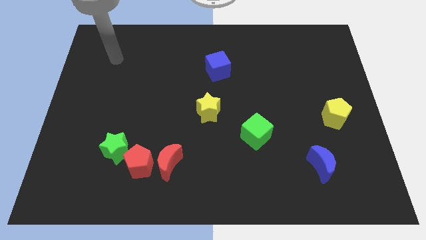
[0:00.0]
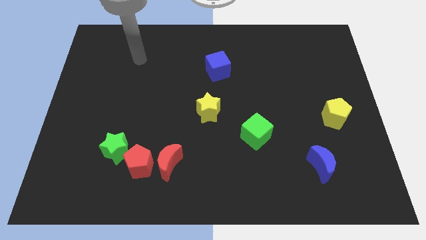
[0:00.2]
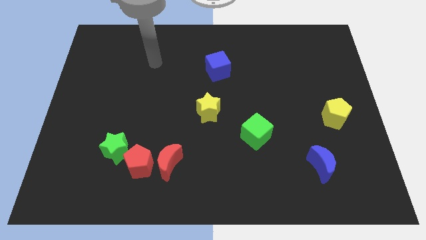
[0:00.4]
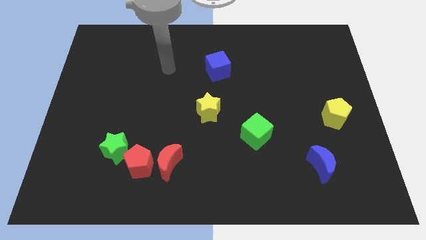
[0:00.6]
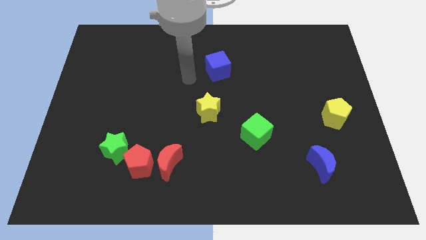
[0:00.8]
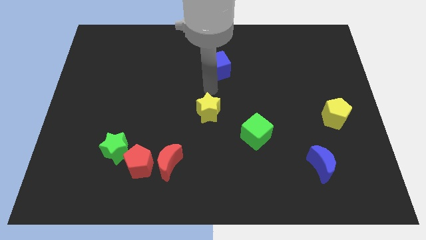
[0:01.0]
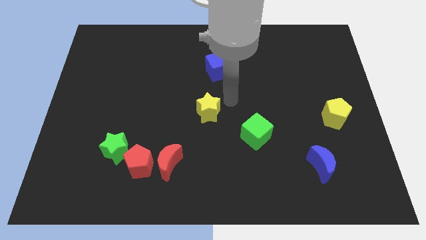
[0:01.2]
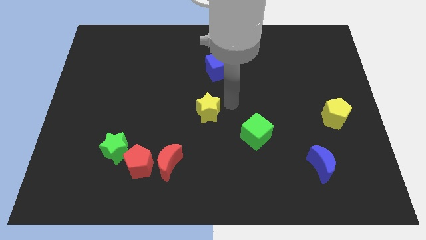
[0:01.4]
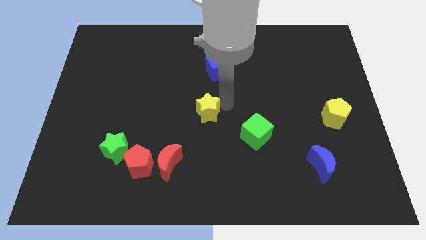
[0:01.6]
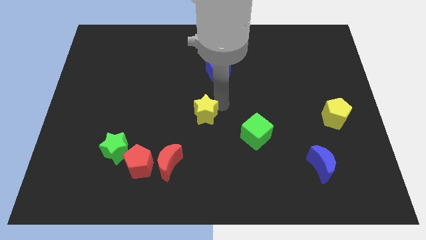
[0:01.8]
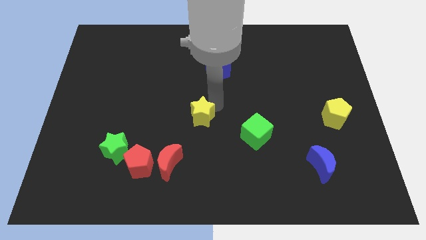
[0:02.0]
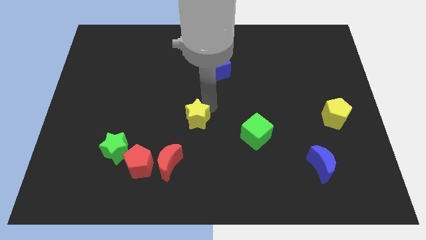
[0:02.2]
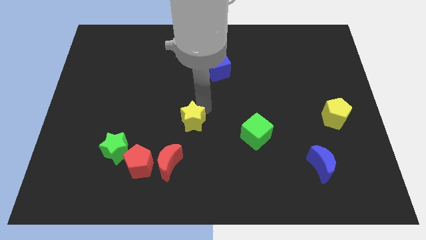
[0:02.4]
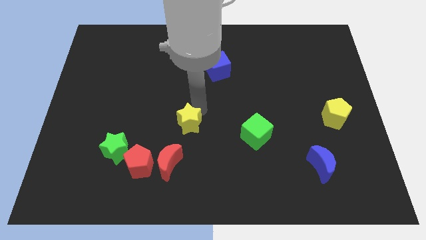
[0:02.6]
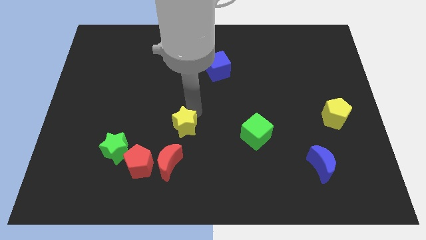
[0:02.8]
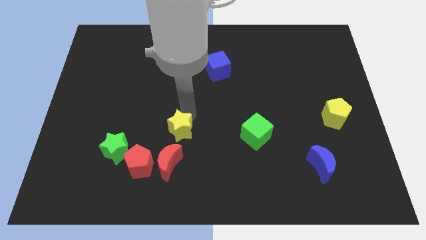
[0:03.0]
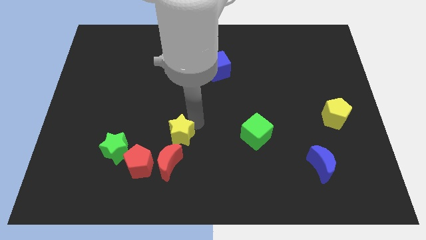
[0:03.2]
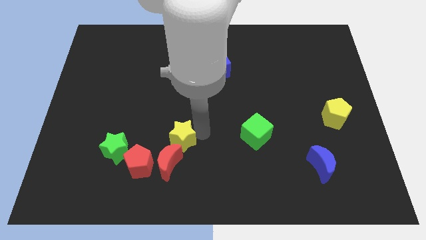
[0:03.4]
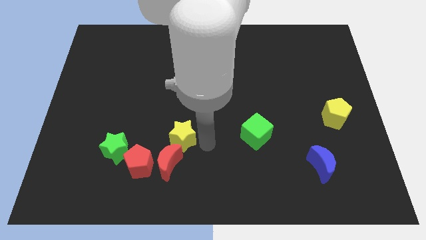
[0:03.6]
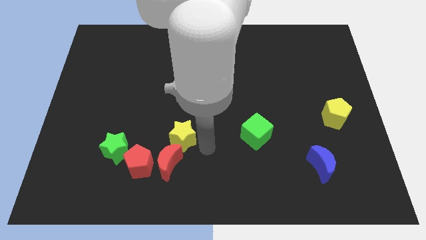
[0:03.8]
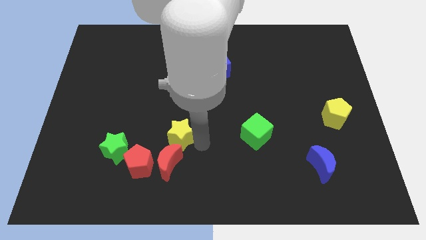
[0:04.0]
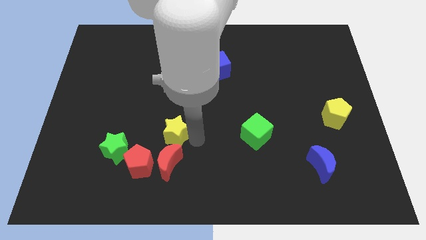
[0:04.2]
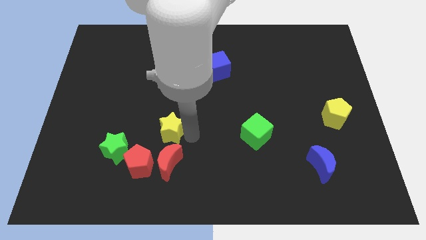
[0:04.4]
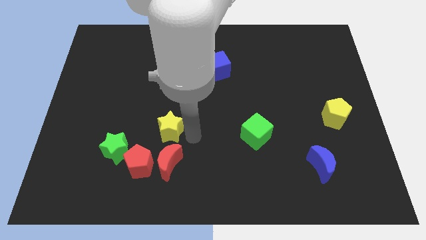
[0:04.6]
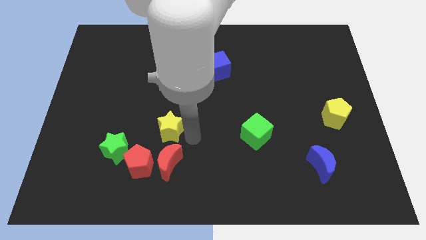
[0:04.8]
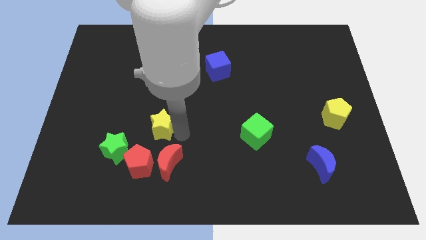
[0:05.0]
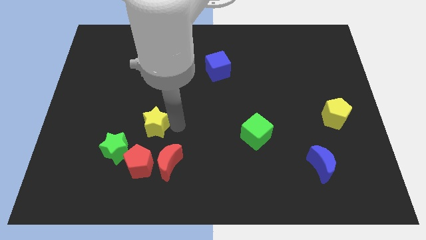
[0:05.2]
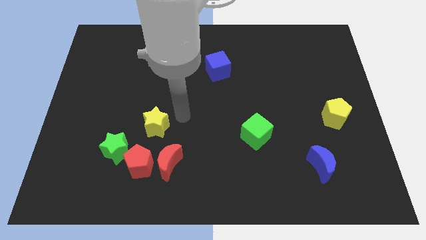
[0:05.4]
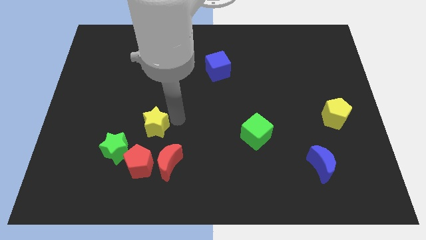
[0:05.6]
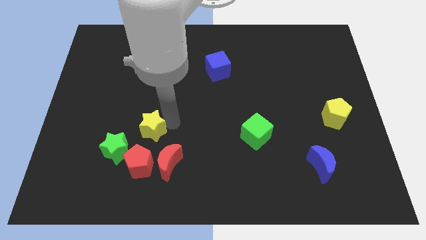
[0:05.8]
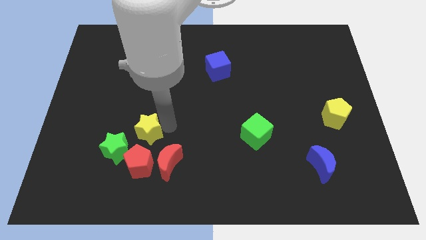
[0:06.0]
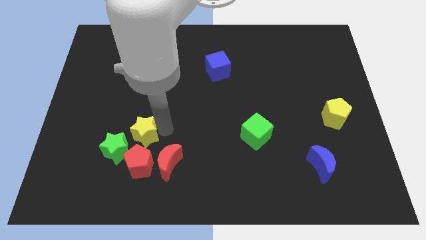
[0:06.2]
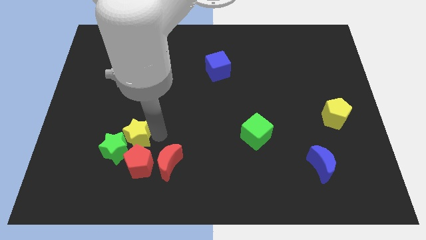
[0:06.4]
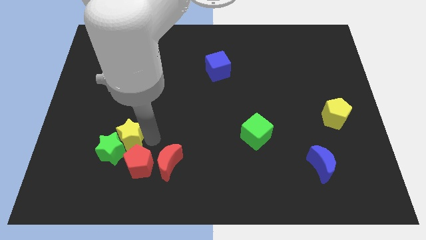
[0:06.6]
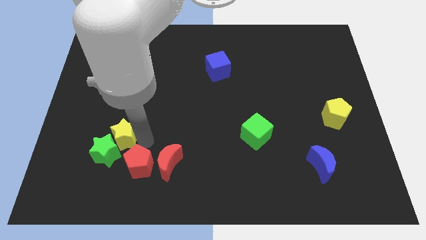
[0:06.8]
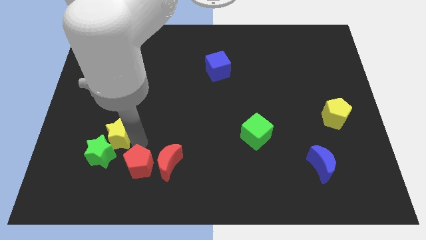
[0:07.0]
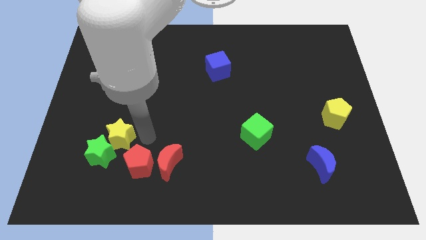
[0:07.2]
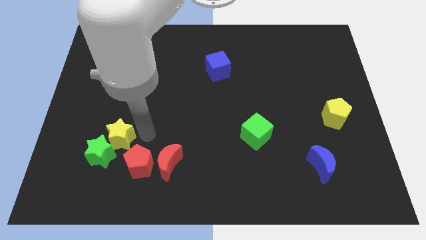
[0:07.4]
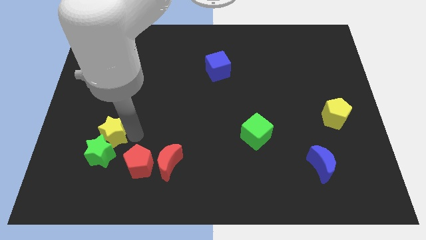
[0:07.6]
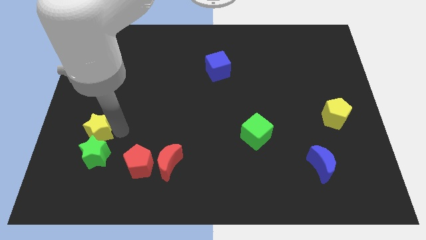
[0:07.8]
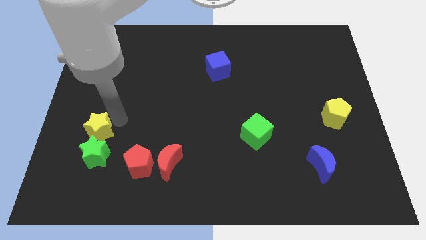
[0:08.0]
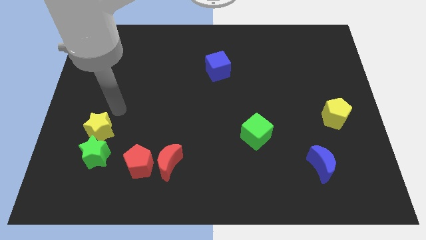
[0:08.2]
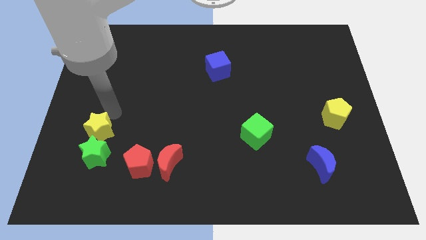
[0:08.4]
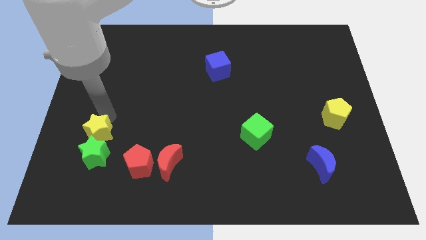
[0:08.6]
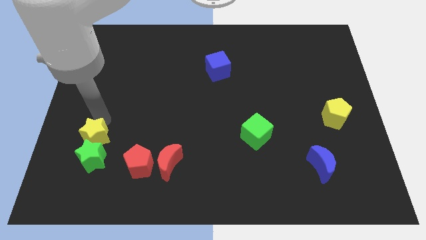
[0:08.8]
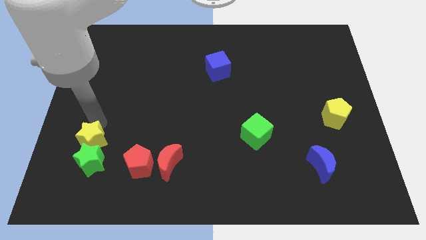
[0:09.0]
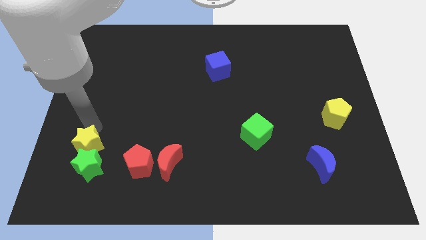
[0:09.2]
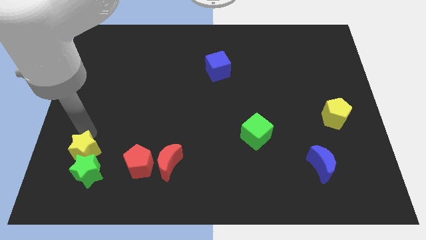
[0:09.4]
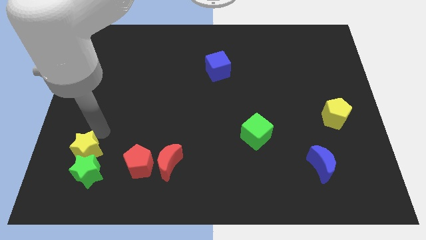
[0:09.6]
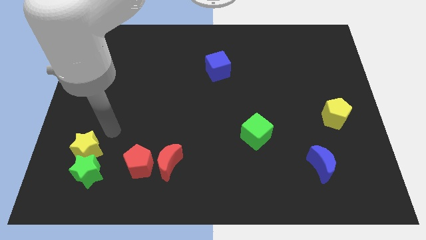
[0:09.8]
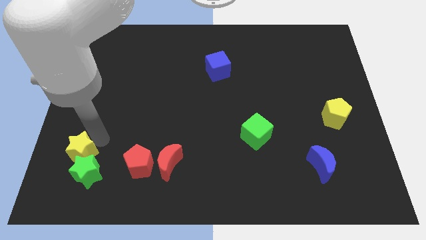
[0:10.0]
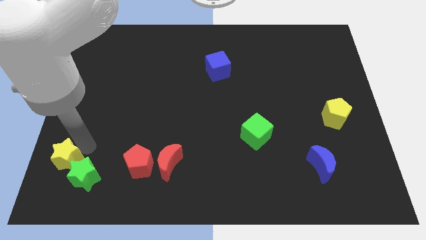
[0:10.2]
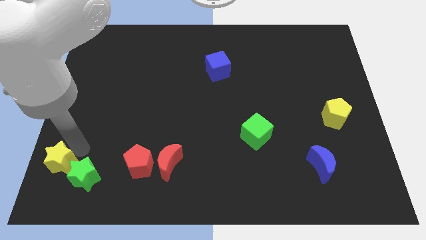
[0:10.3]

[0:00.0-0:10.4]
slide the yellow star to the bottom left of the board

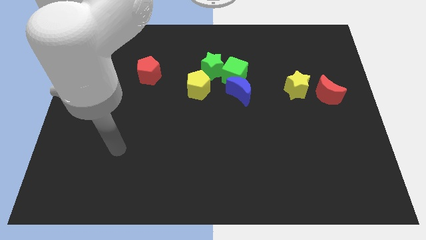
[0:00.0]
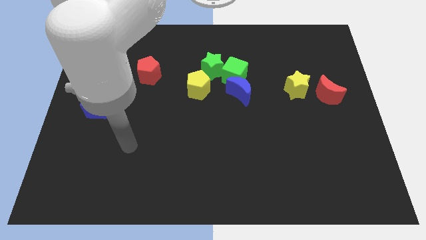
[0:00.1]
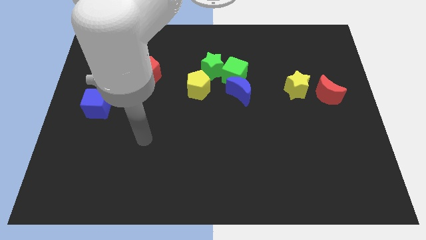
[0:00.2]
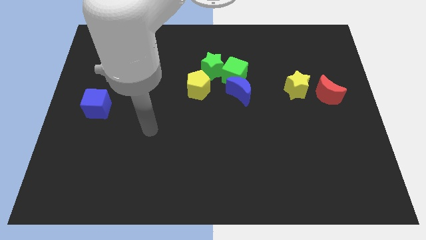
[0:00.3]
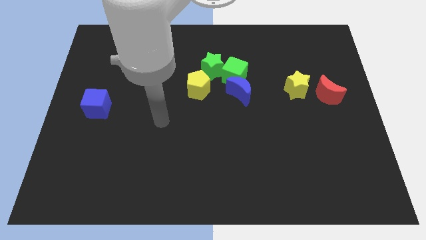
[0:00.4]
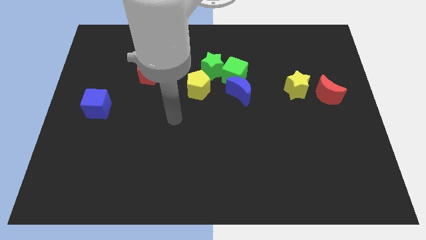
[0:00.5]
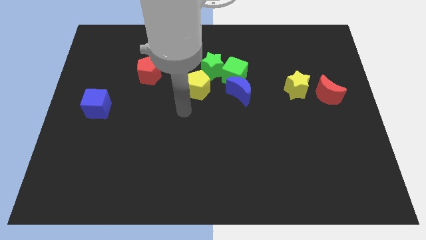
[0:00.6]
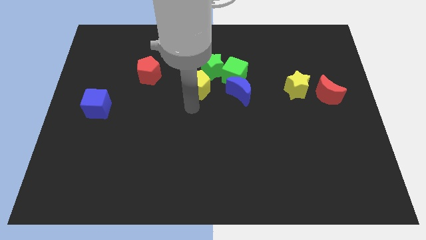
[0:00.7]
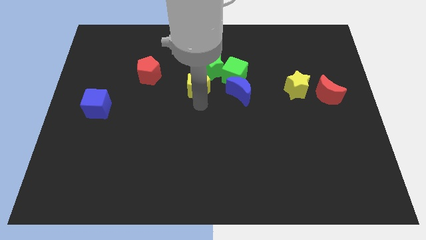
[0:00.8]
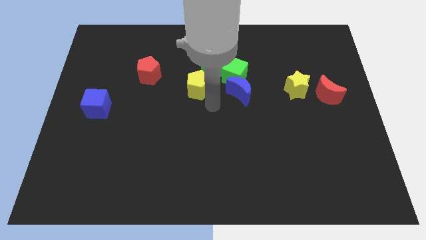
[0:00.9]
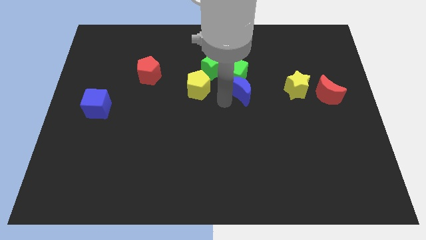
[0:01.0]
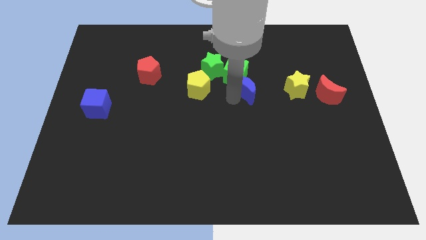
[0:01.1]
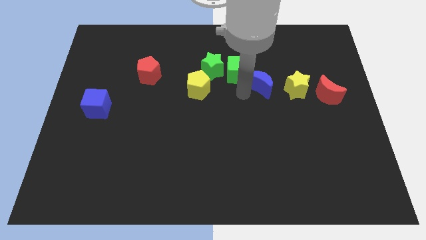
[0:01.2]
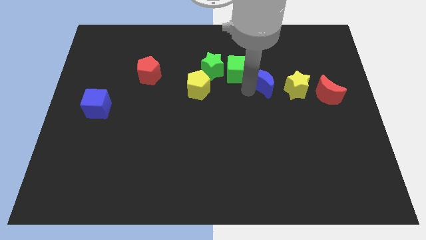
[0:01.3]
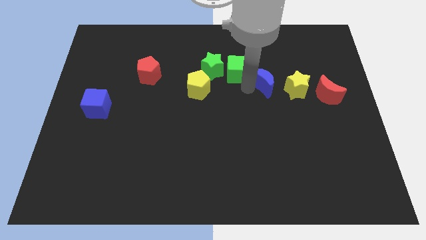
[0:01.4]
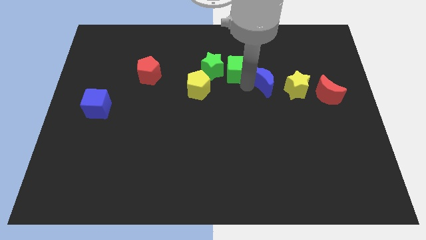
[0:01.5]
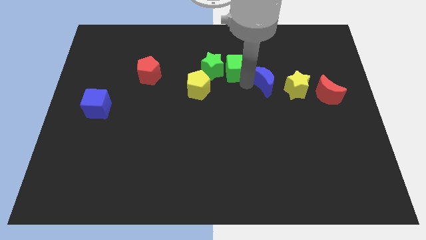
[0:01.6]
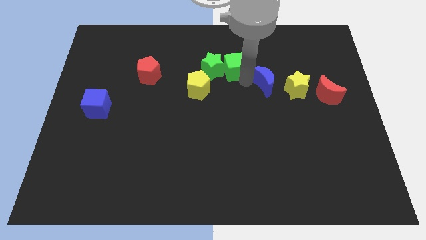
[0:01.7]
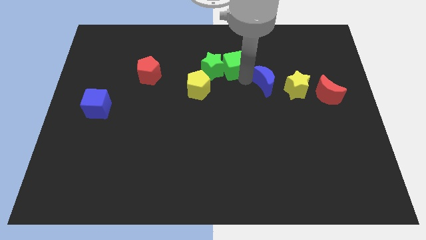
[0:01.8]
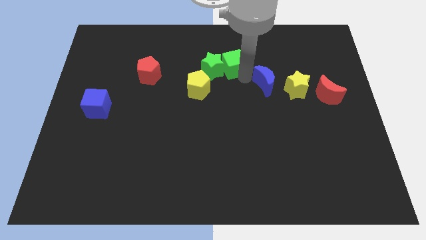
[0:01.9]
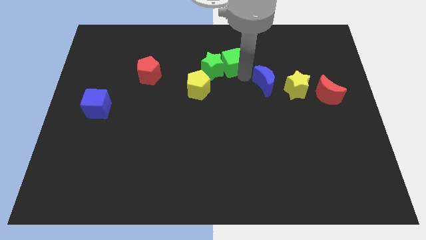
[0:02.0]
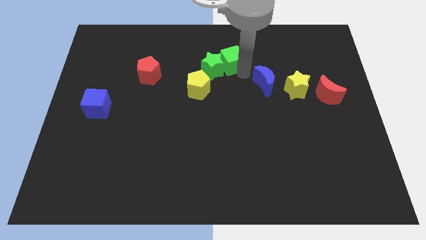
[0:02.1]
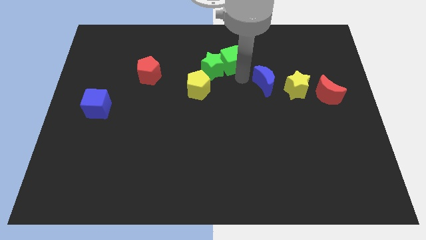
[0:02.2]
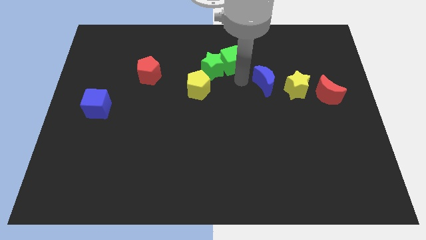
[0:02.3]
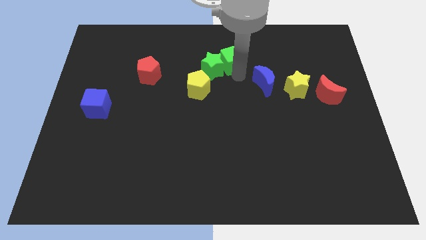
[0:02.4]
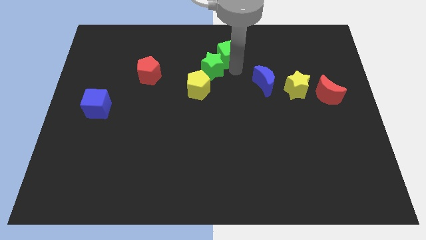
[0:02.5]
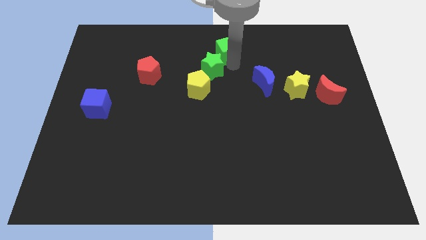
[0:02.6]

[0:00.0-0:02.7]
put the green cube to the top side
